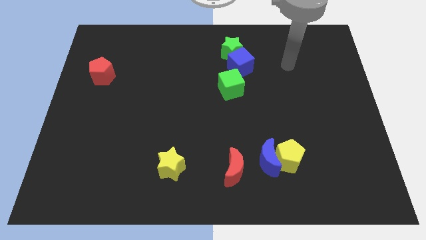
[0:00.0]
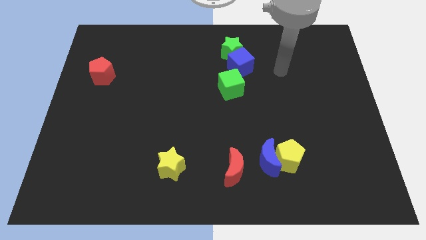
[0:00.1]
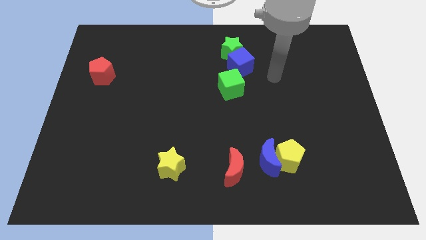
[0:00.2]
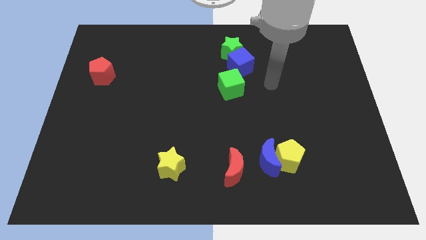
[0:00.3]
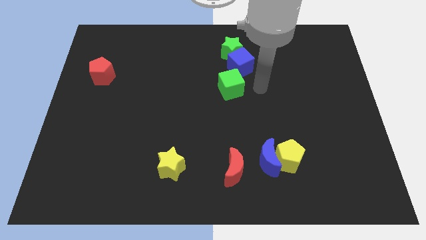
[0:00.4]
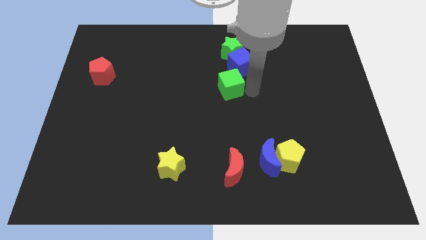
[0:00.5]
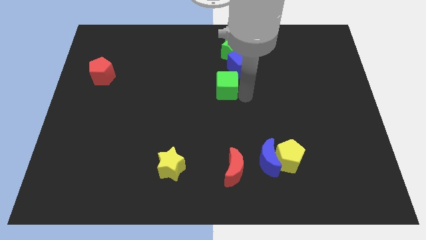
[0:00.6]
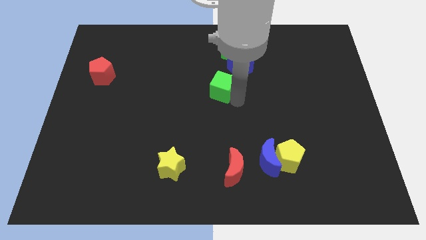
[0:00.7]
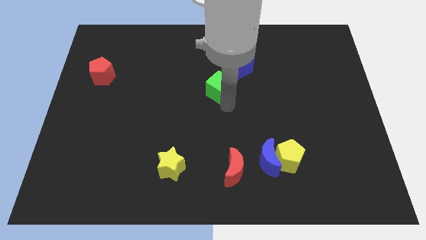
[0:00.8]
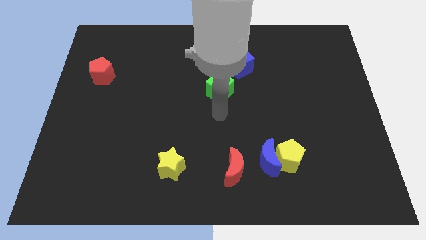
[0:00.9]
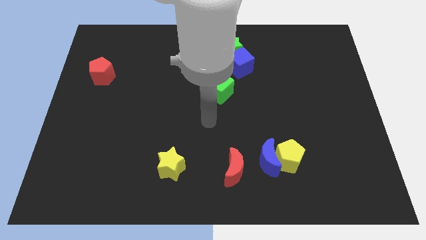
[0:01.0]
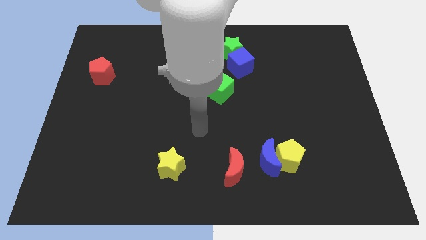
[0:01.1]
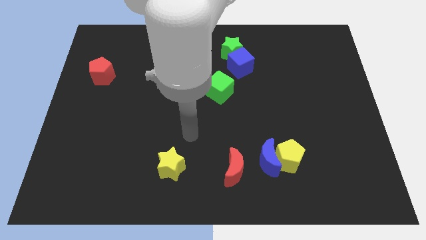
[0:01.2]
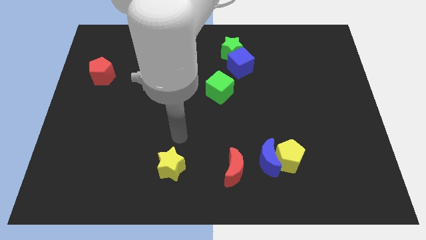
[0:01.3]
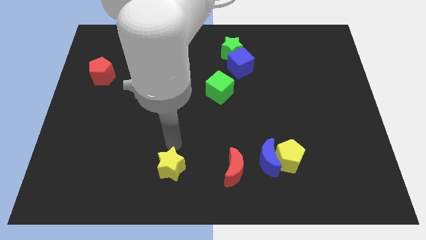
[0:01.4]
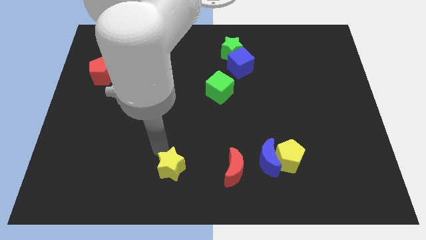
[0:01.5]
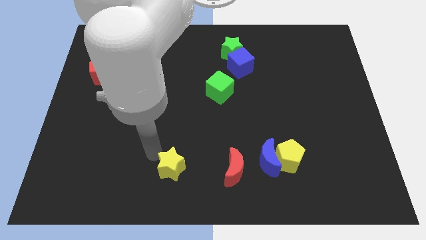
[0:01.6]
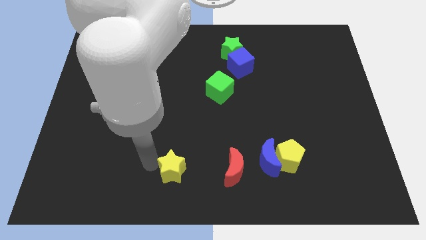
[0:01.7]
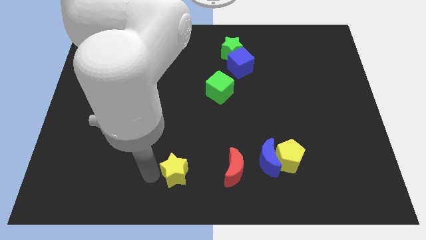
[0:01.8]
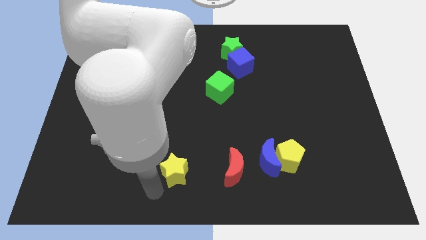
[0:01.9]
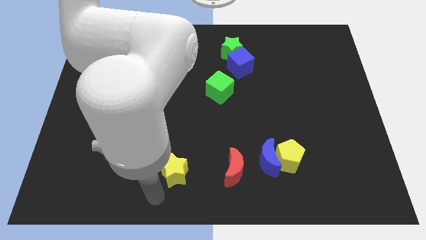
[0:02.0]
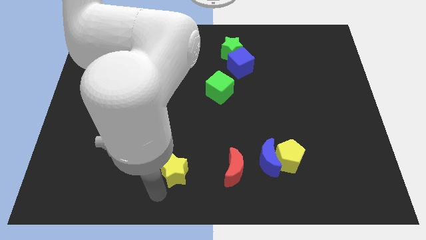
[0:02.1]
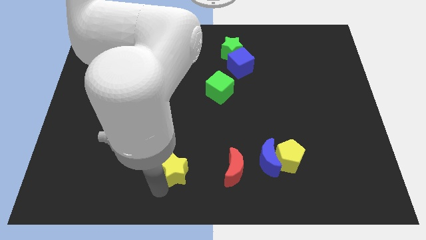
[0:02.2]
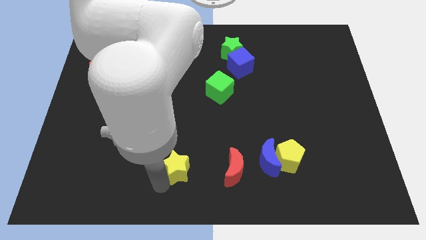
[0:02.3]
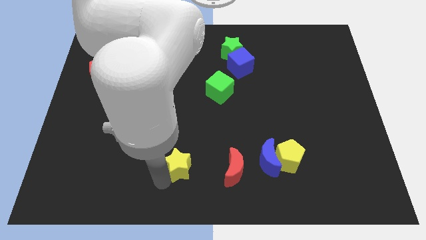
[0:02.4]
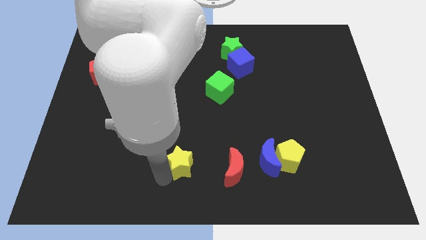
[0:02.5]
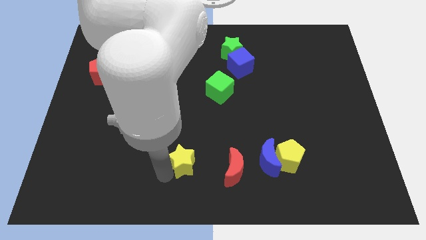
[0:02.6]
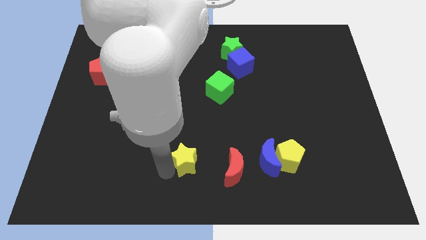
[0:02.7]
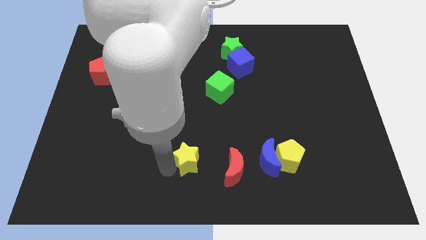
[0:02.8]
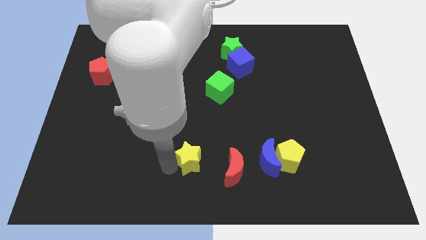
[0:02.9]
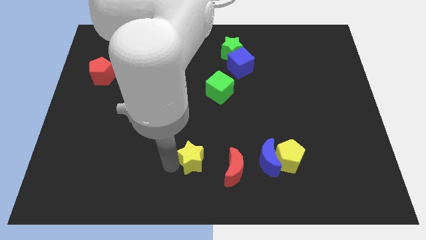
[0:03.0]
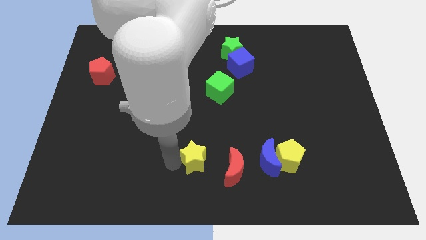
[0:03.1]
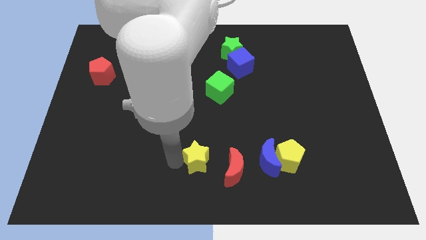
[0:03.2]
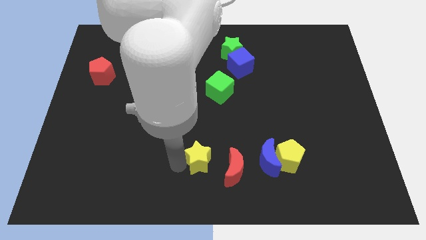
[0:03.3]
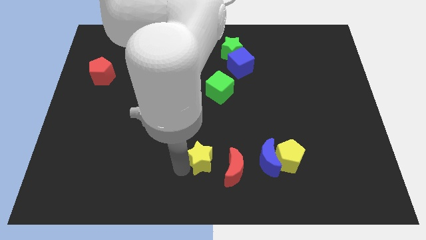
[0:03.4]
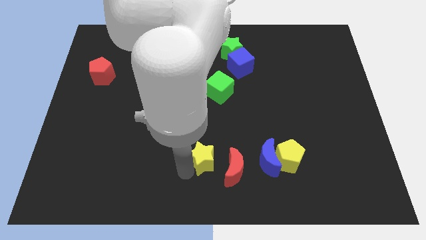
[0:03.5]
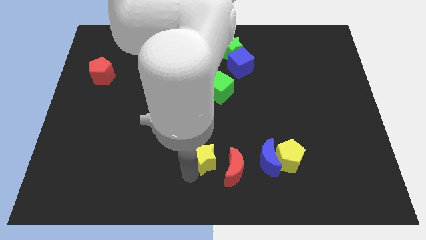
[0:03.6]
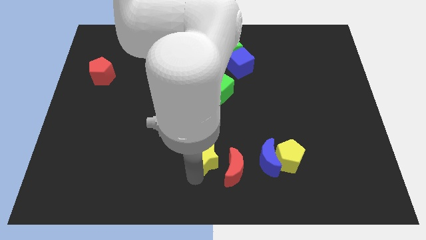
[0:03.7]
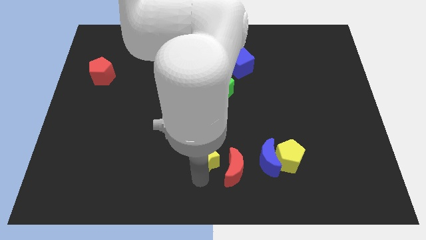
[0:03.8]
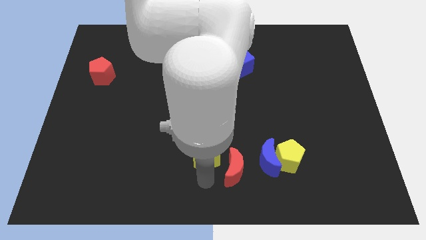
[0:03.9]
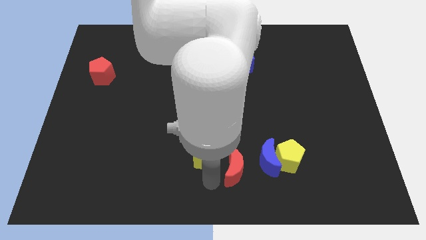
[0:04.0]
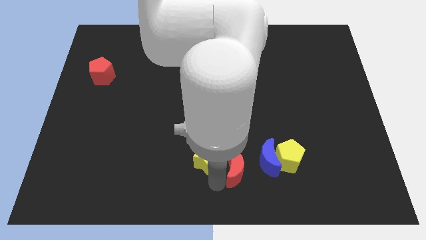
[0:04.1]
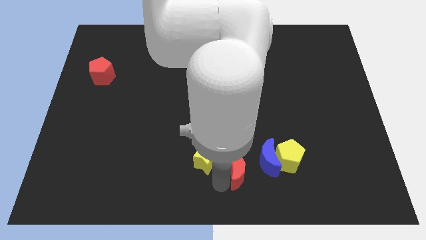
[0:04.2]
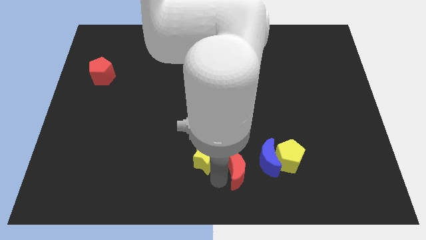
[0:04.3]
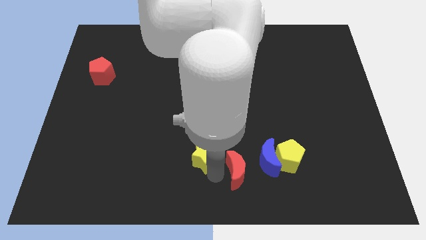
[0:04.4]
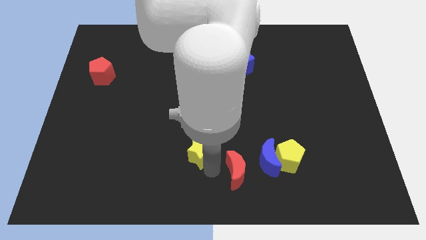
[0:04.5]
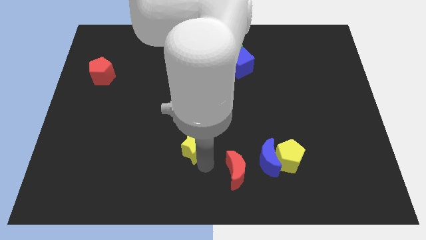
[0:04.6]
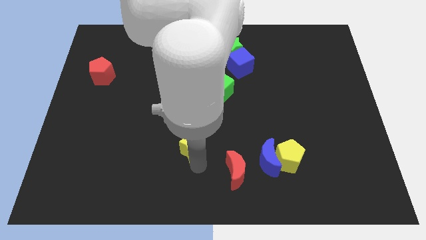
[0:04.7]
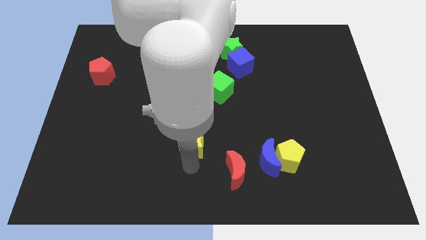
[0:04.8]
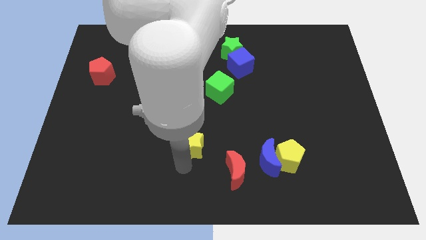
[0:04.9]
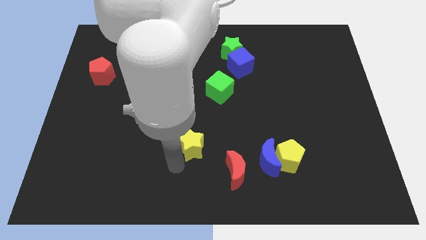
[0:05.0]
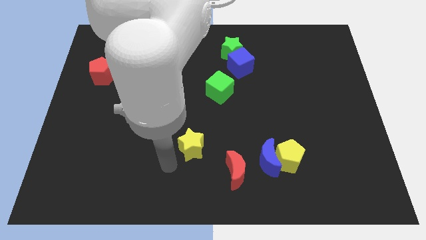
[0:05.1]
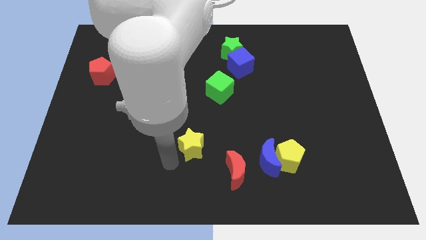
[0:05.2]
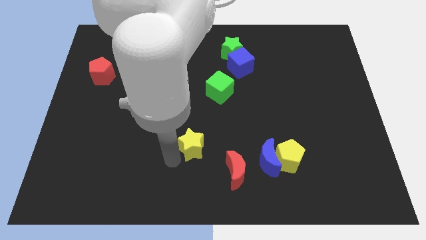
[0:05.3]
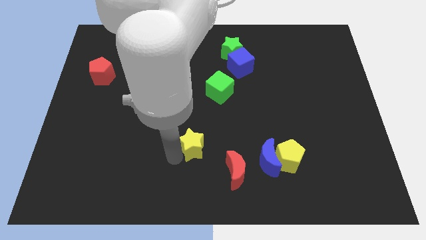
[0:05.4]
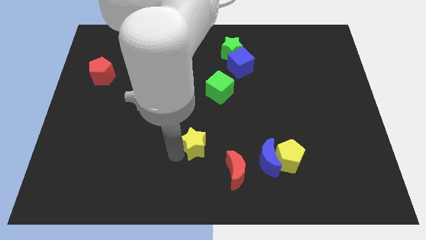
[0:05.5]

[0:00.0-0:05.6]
push the yellow star diagonally up and to the right slightly

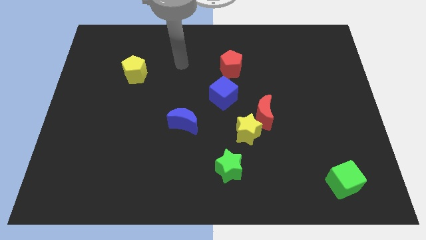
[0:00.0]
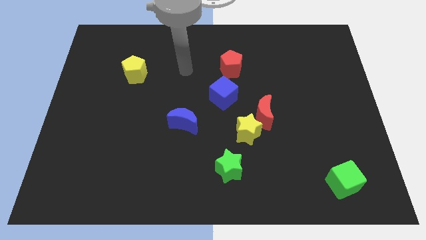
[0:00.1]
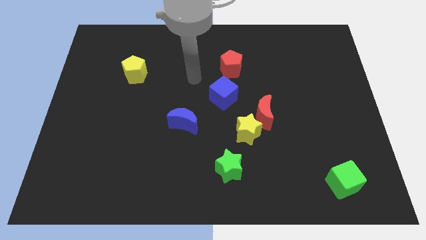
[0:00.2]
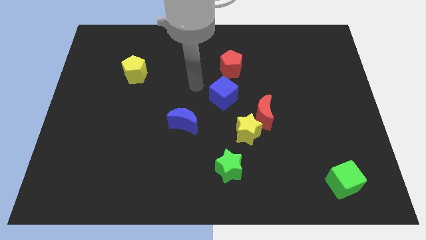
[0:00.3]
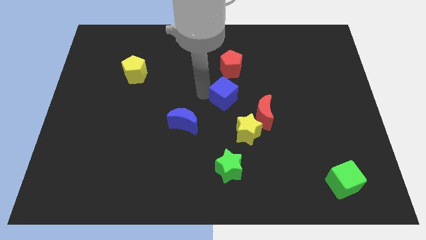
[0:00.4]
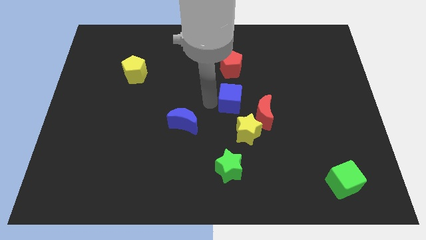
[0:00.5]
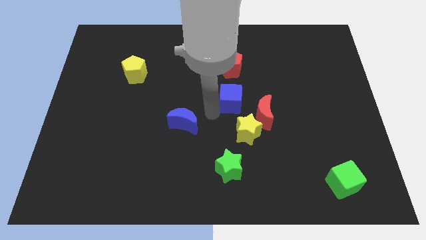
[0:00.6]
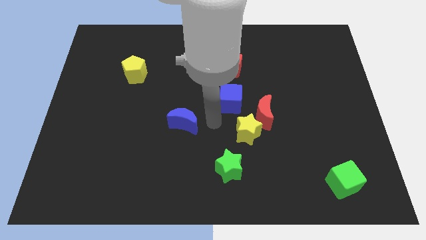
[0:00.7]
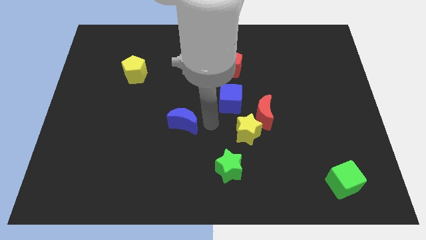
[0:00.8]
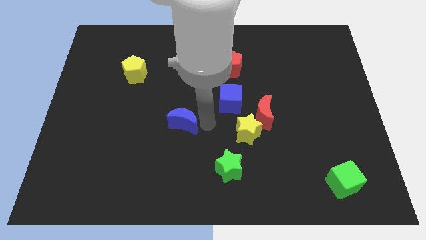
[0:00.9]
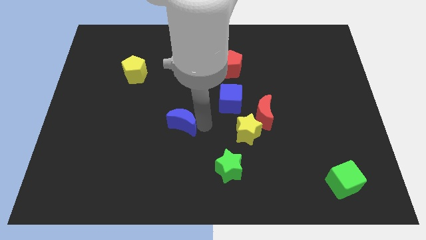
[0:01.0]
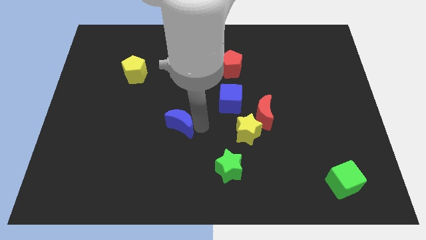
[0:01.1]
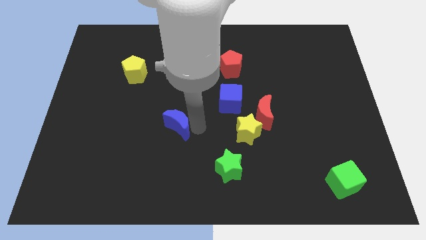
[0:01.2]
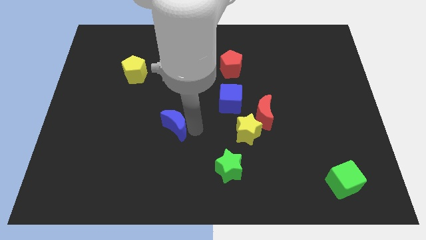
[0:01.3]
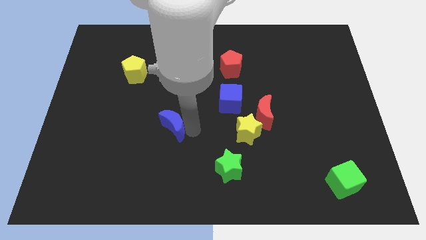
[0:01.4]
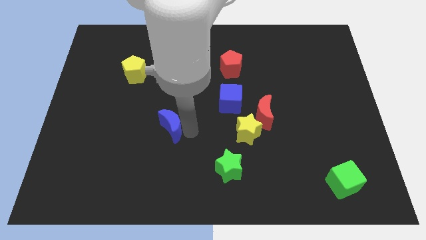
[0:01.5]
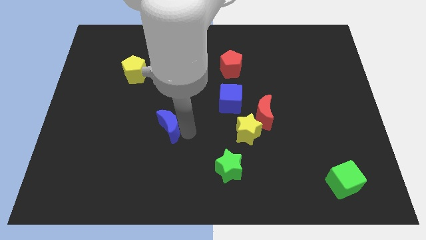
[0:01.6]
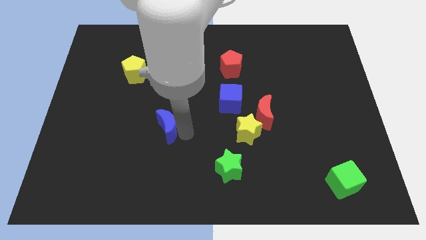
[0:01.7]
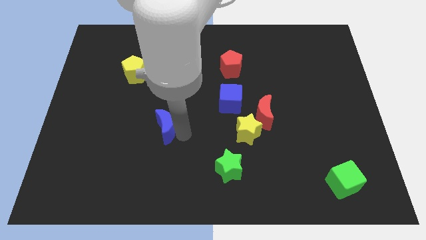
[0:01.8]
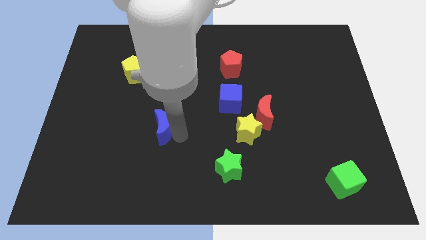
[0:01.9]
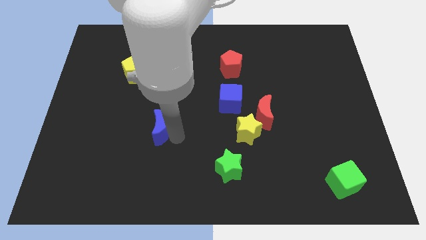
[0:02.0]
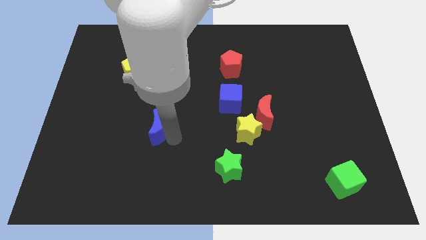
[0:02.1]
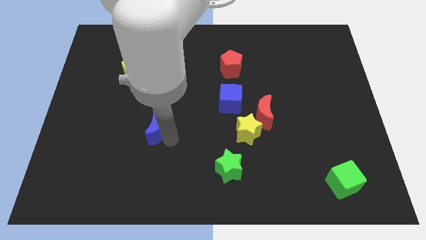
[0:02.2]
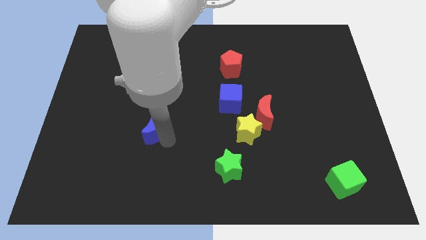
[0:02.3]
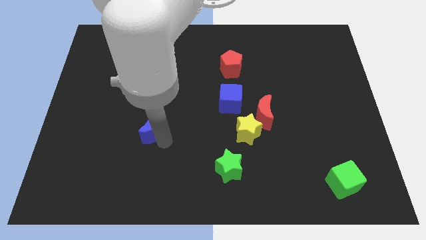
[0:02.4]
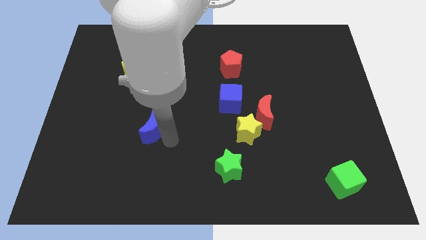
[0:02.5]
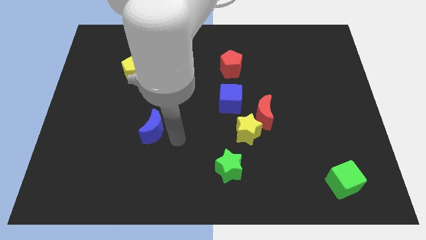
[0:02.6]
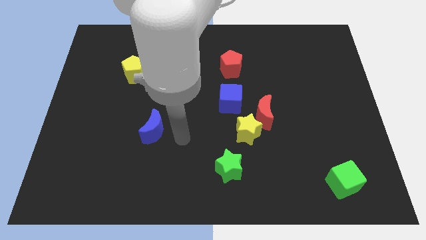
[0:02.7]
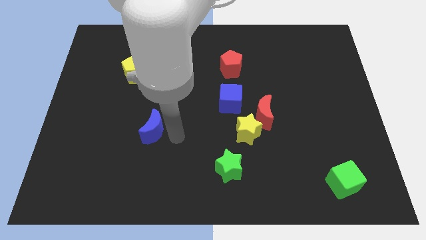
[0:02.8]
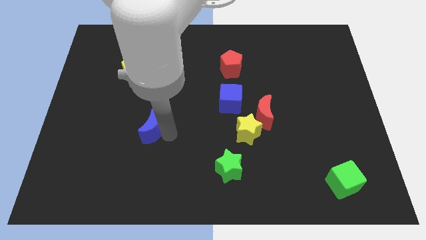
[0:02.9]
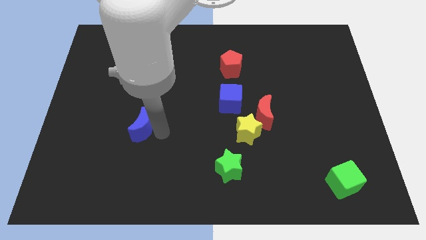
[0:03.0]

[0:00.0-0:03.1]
push the blue moon to the left slightly
